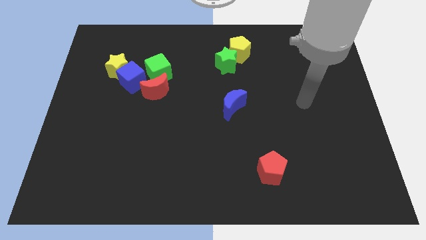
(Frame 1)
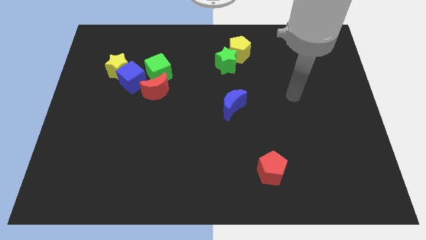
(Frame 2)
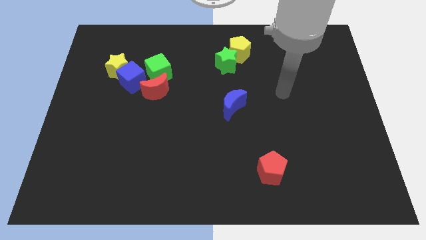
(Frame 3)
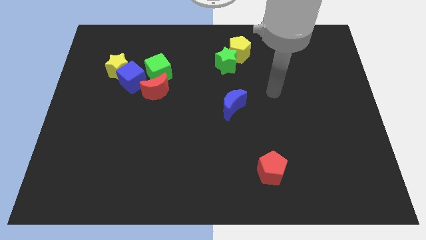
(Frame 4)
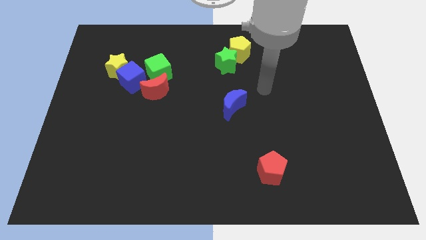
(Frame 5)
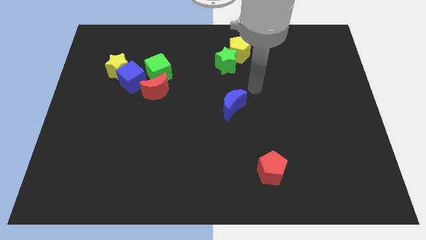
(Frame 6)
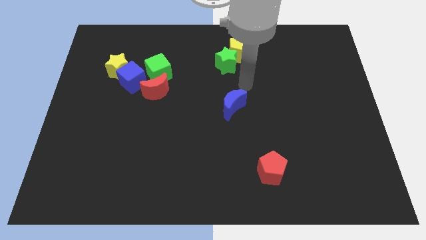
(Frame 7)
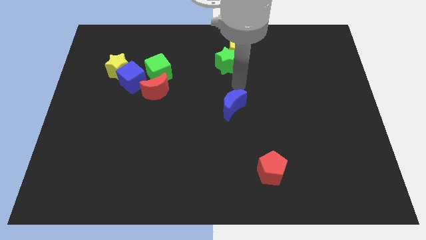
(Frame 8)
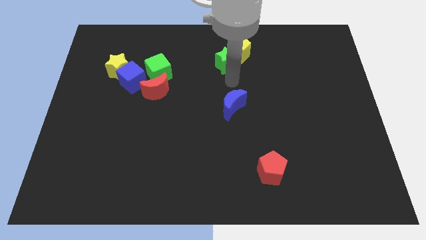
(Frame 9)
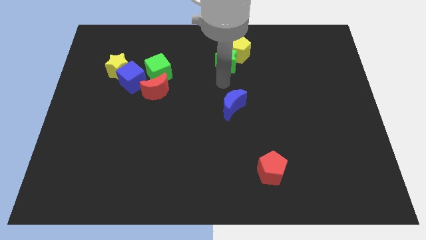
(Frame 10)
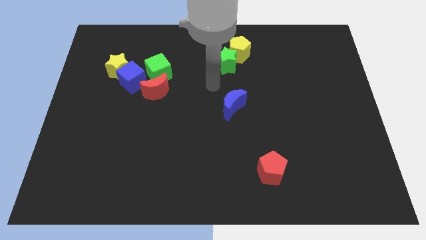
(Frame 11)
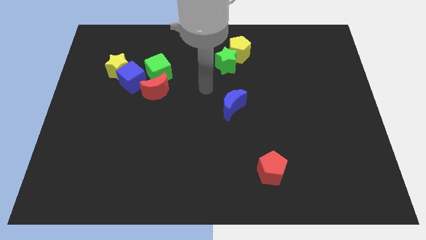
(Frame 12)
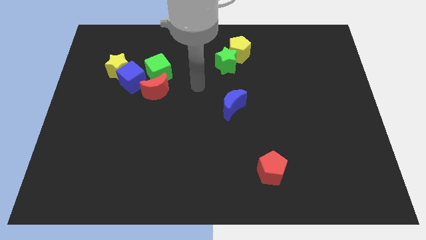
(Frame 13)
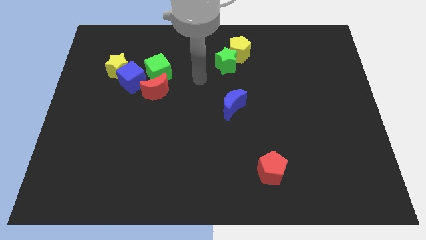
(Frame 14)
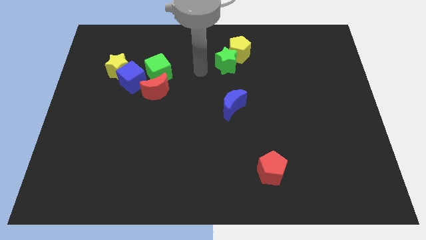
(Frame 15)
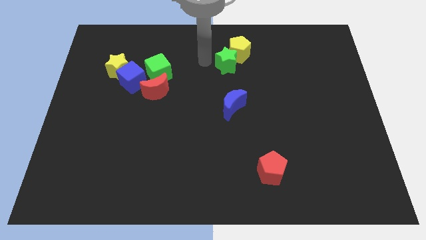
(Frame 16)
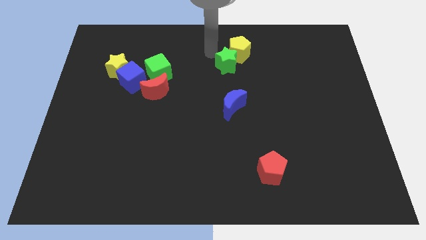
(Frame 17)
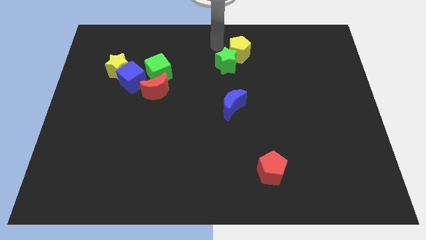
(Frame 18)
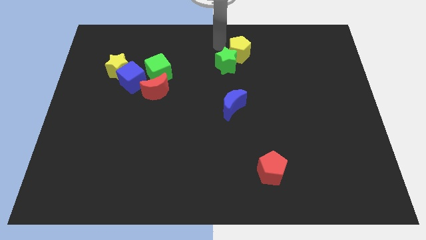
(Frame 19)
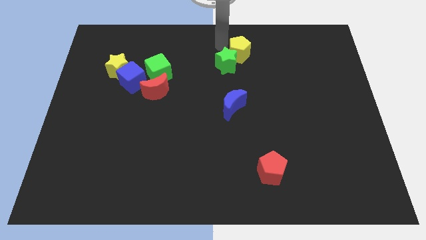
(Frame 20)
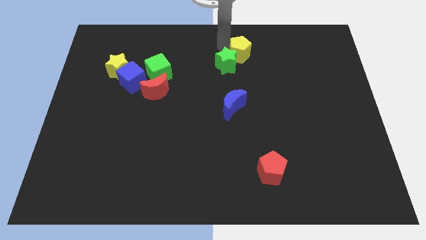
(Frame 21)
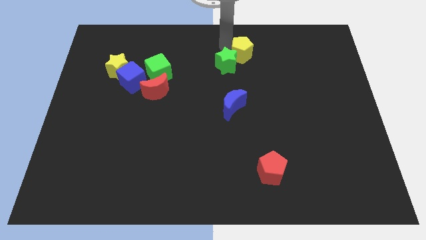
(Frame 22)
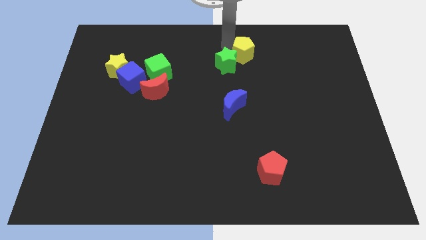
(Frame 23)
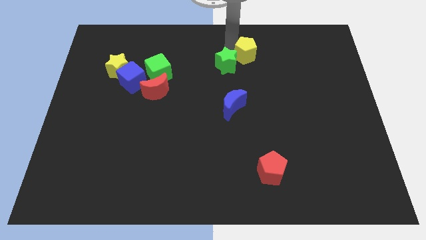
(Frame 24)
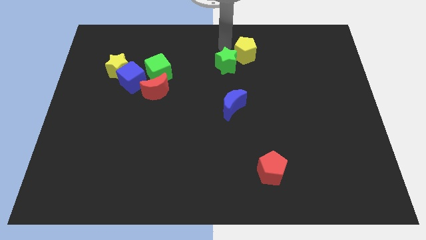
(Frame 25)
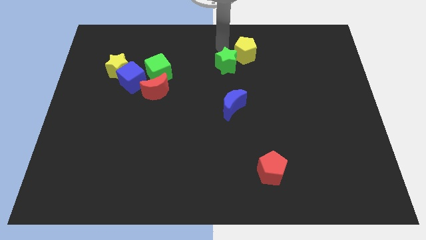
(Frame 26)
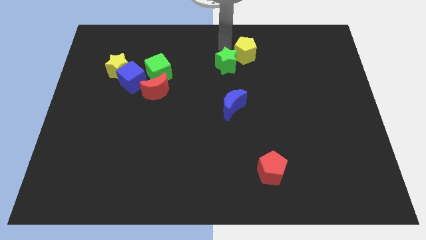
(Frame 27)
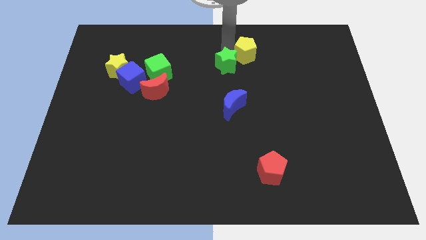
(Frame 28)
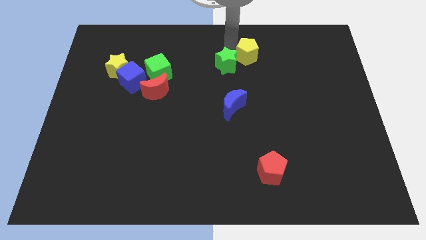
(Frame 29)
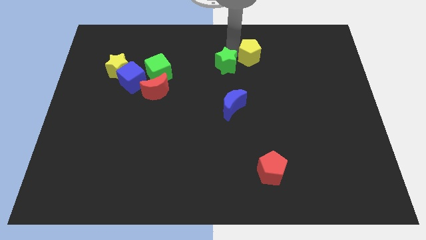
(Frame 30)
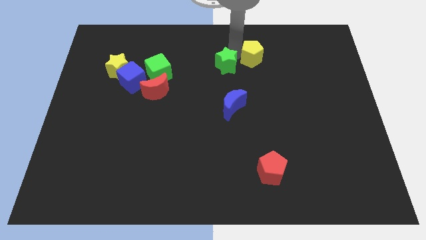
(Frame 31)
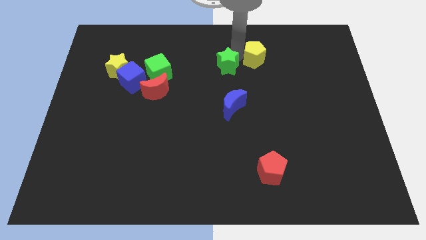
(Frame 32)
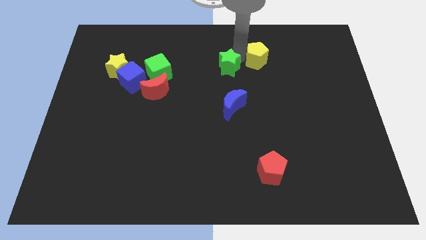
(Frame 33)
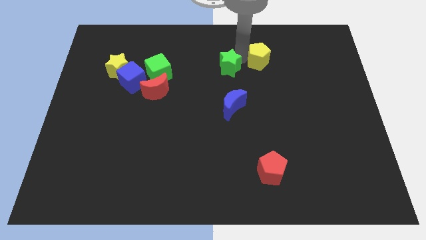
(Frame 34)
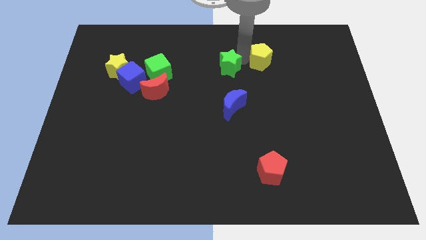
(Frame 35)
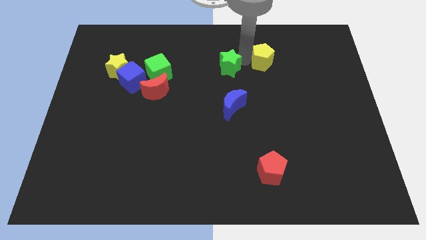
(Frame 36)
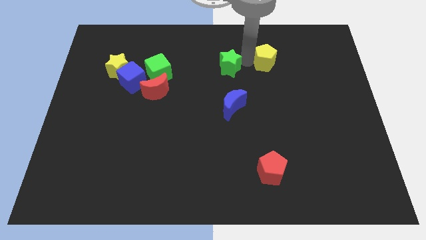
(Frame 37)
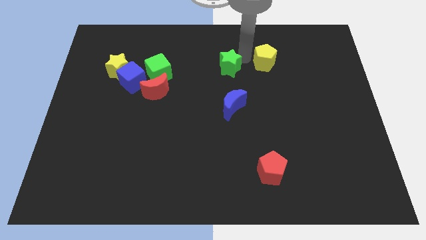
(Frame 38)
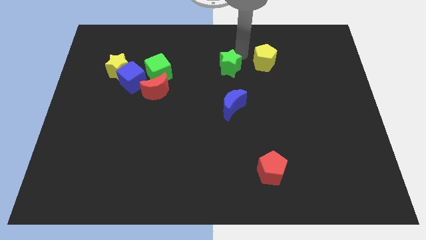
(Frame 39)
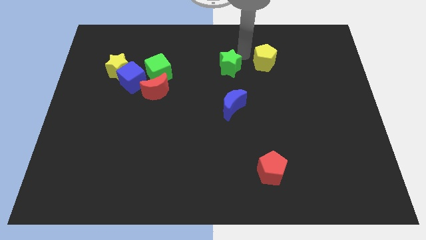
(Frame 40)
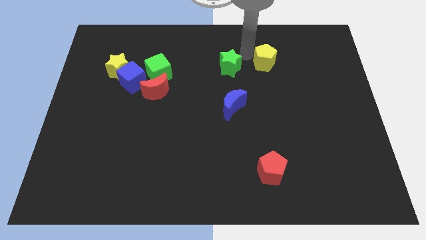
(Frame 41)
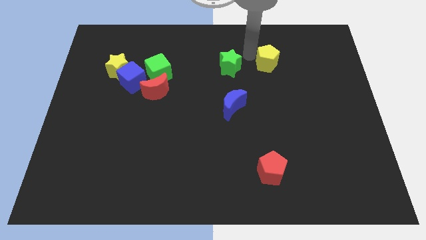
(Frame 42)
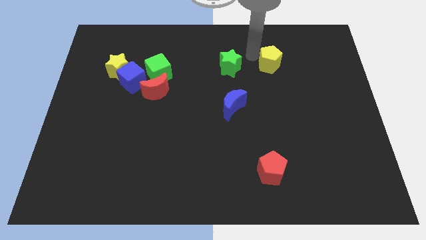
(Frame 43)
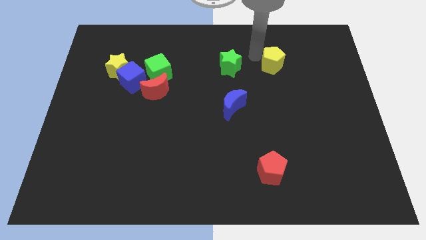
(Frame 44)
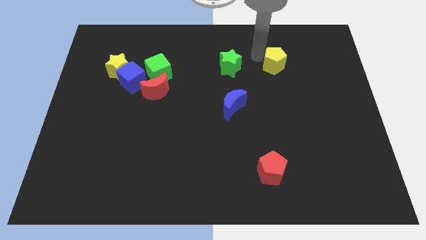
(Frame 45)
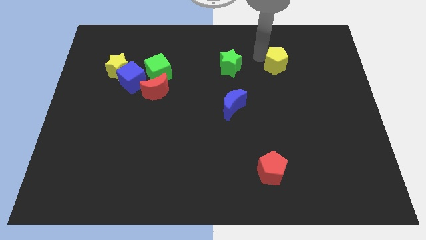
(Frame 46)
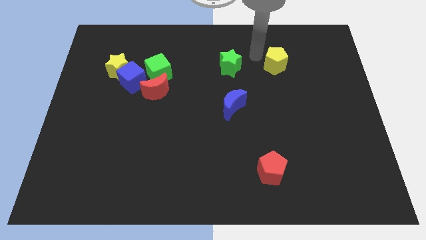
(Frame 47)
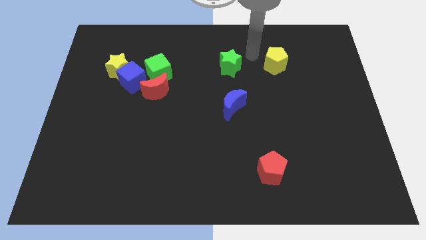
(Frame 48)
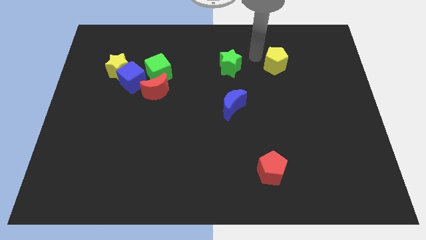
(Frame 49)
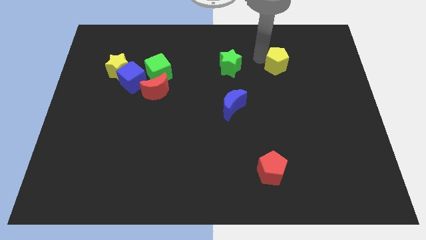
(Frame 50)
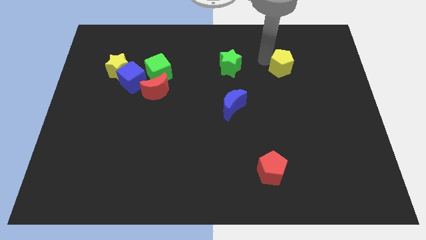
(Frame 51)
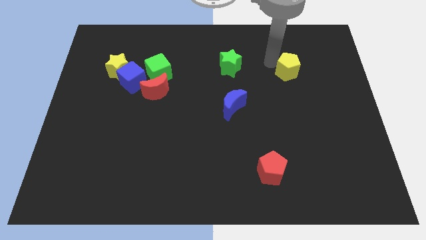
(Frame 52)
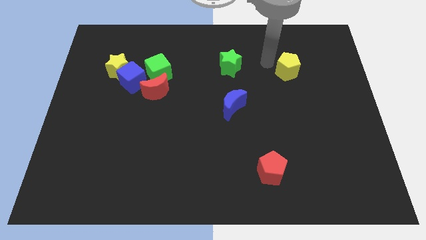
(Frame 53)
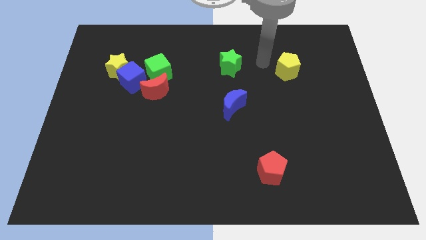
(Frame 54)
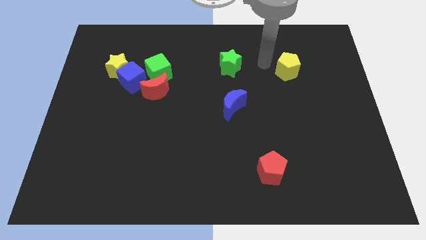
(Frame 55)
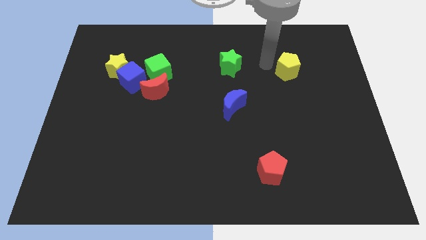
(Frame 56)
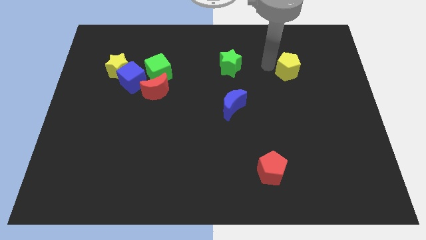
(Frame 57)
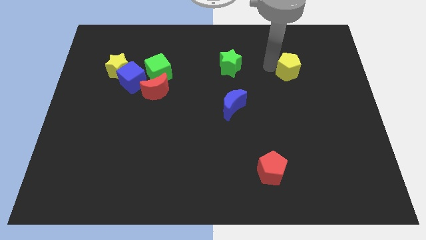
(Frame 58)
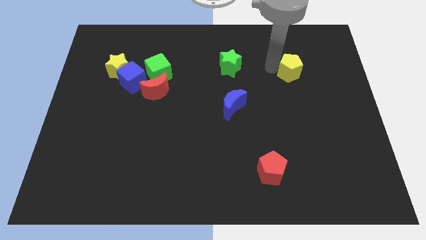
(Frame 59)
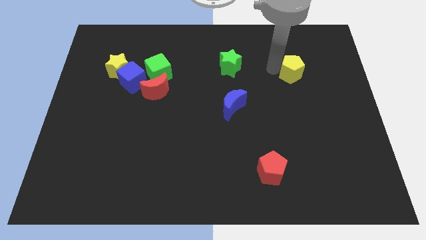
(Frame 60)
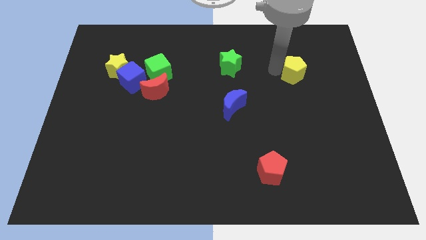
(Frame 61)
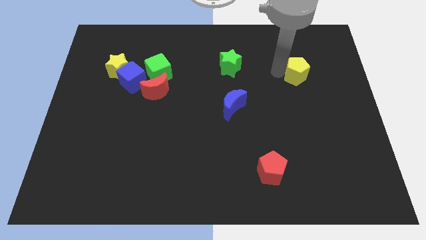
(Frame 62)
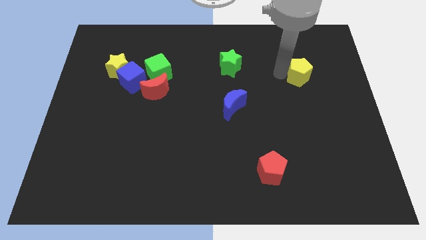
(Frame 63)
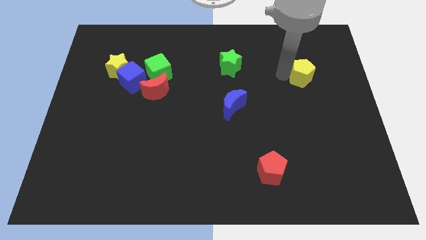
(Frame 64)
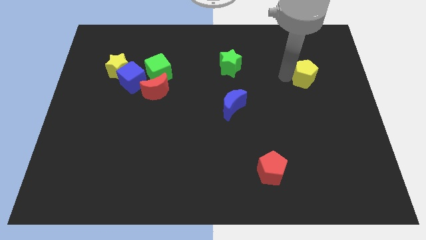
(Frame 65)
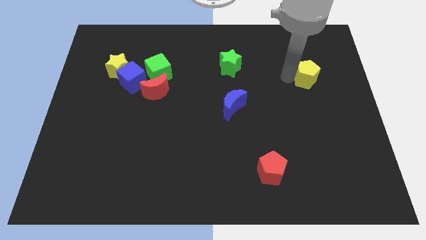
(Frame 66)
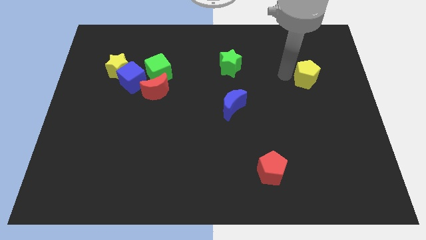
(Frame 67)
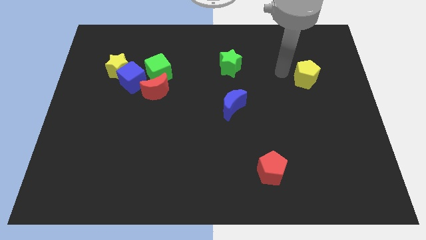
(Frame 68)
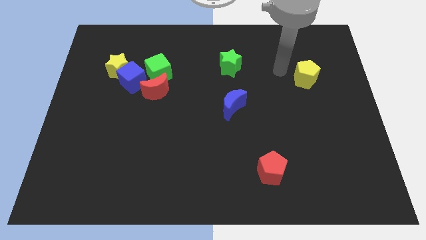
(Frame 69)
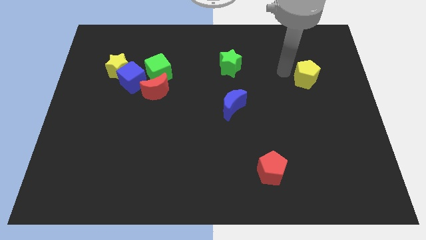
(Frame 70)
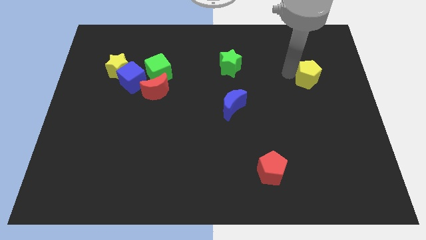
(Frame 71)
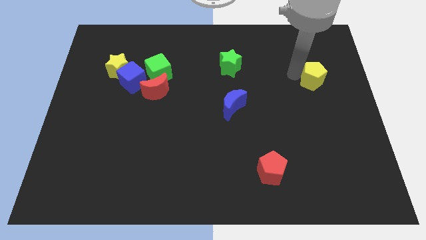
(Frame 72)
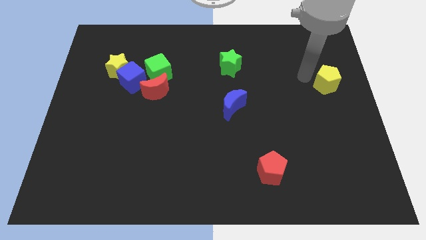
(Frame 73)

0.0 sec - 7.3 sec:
push the yellow pentagon to the center right
